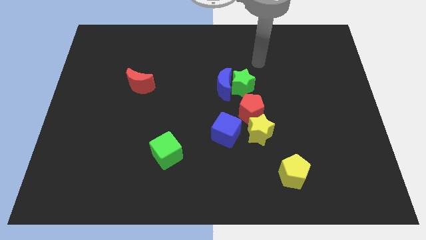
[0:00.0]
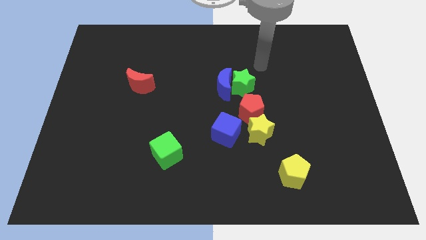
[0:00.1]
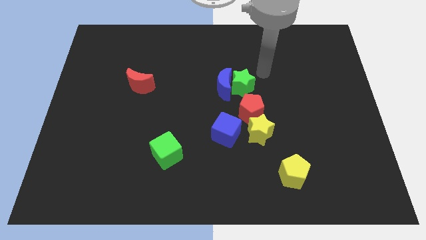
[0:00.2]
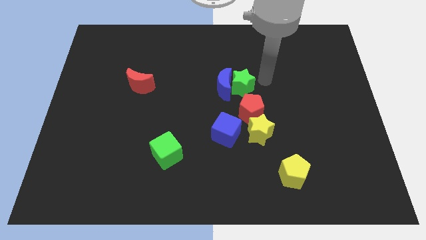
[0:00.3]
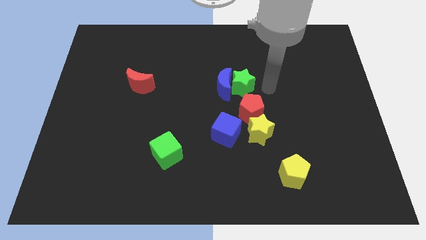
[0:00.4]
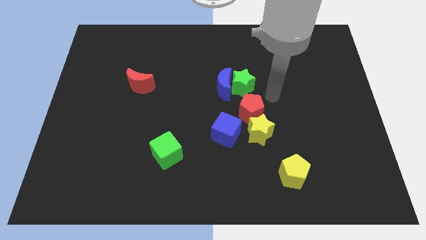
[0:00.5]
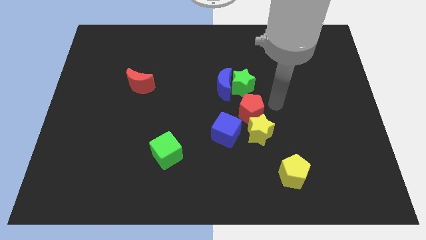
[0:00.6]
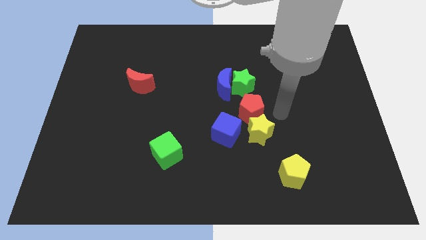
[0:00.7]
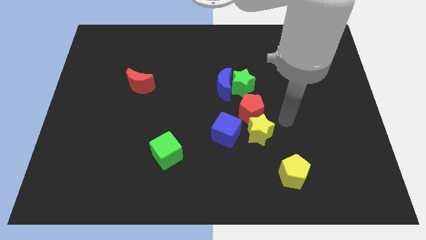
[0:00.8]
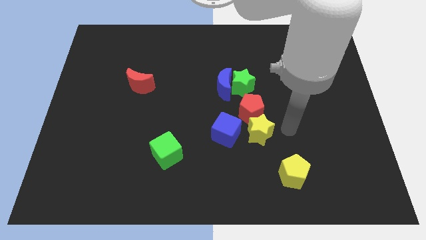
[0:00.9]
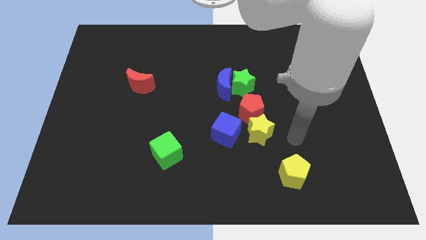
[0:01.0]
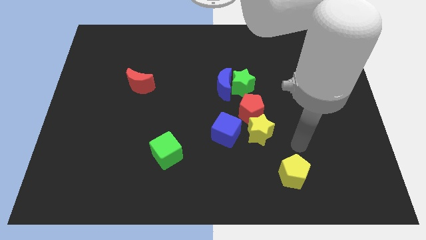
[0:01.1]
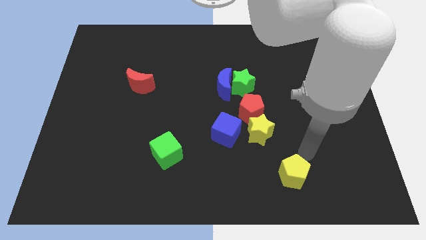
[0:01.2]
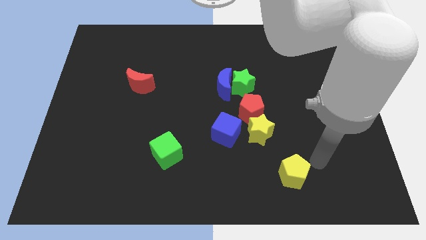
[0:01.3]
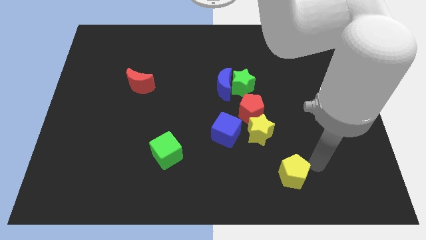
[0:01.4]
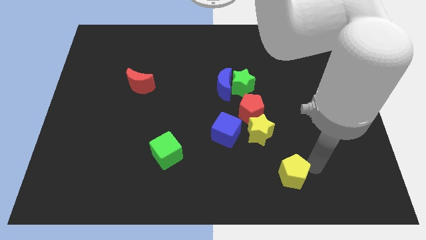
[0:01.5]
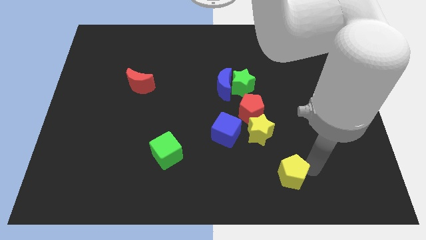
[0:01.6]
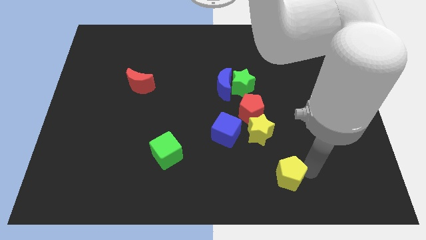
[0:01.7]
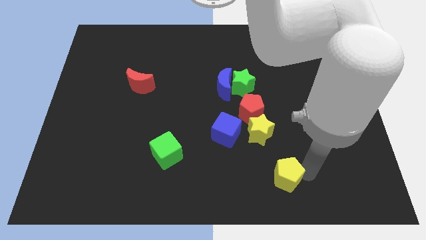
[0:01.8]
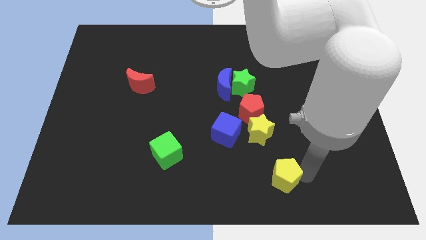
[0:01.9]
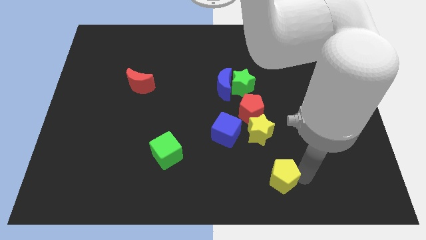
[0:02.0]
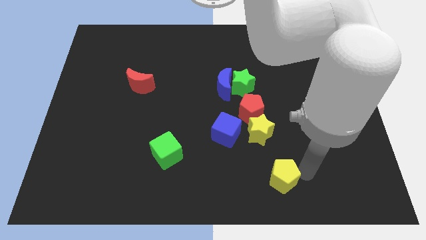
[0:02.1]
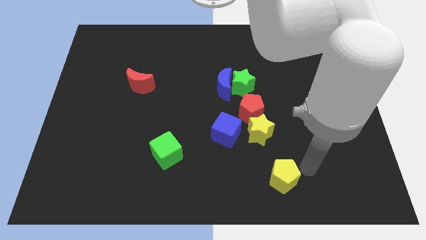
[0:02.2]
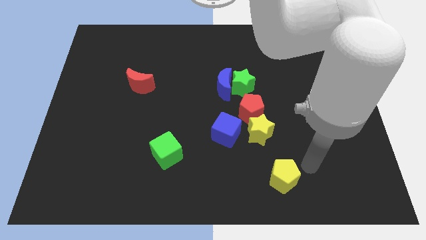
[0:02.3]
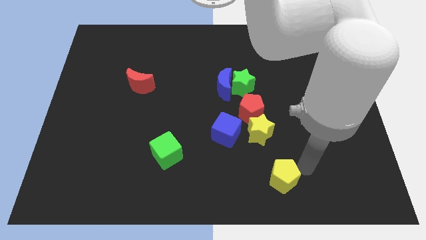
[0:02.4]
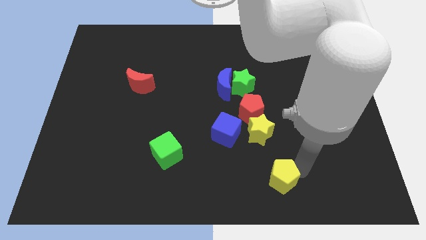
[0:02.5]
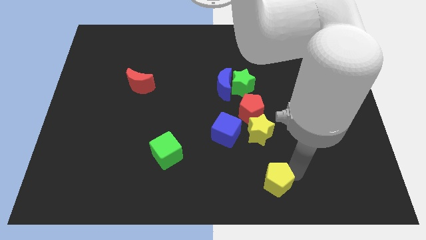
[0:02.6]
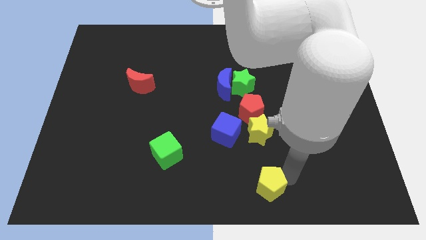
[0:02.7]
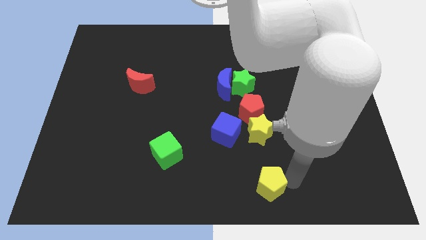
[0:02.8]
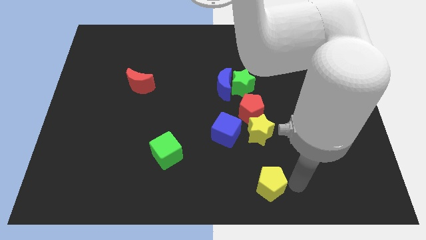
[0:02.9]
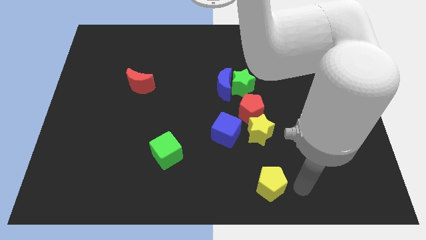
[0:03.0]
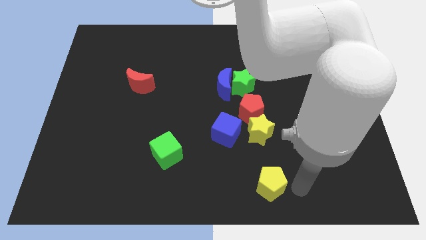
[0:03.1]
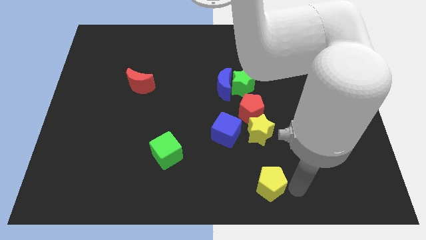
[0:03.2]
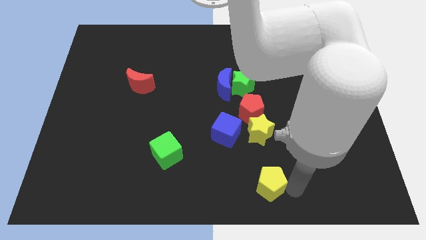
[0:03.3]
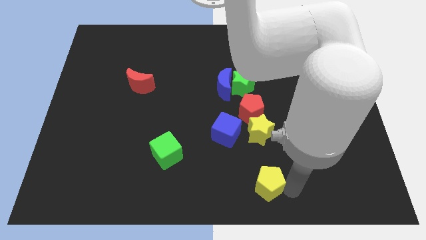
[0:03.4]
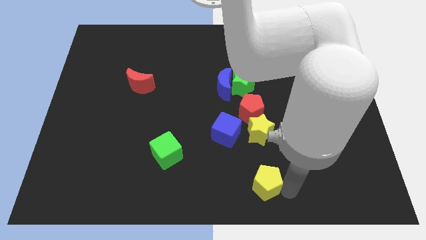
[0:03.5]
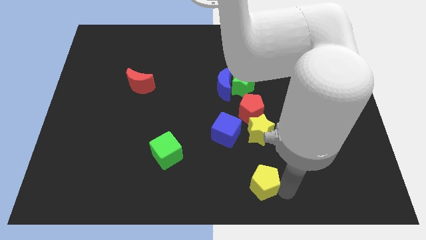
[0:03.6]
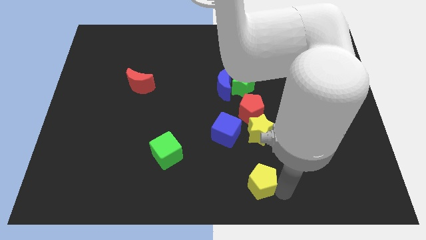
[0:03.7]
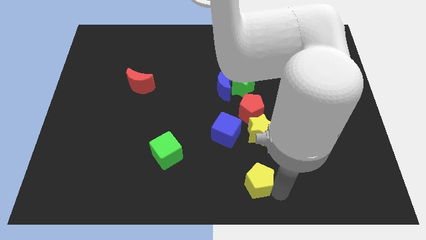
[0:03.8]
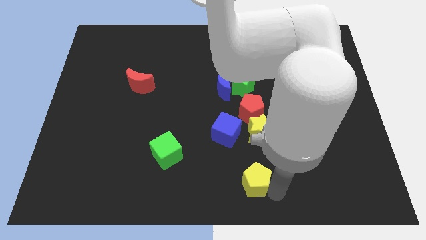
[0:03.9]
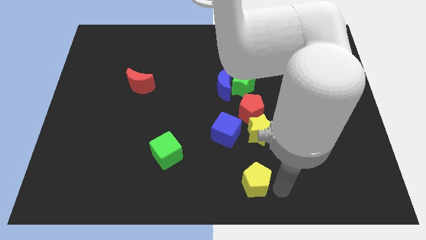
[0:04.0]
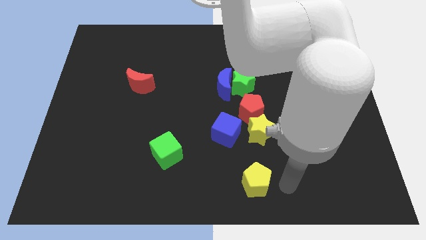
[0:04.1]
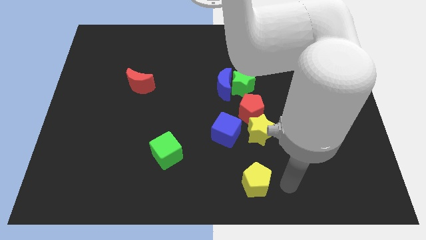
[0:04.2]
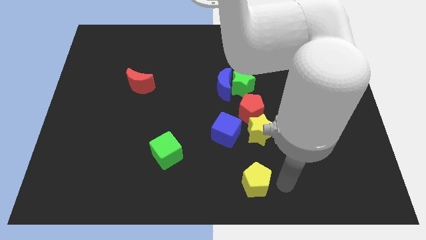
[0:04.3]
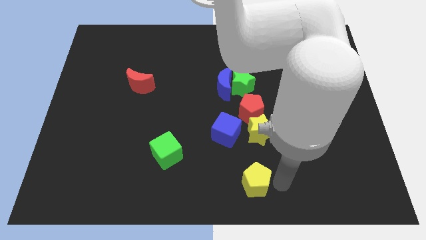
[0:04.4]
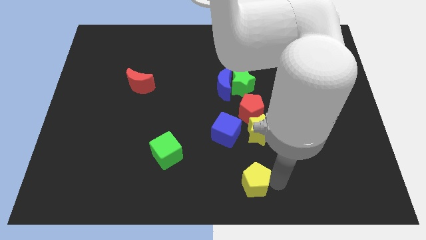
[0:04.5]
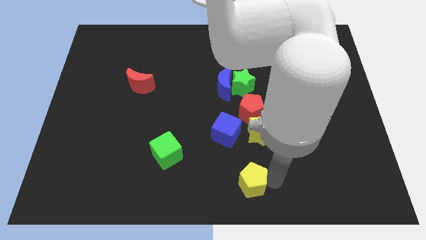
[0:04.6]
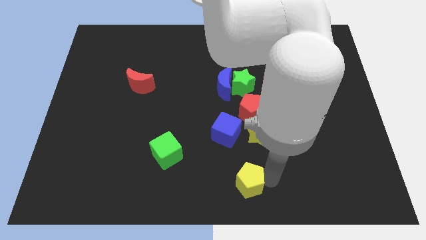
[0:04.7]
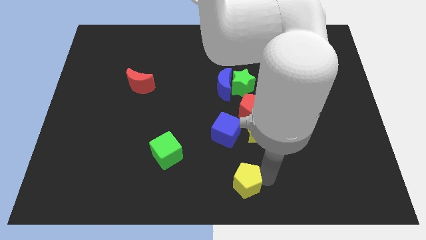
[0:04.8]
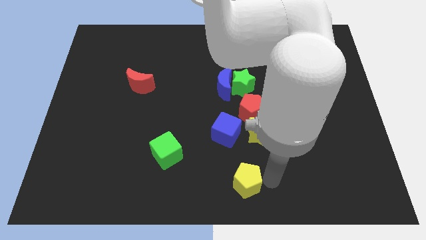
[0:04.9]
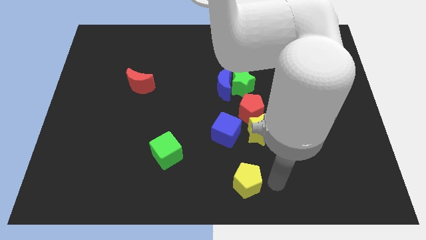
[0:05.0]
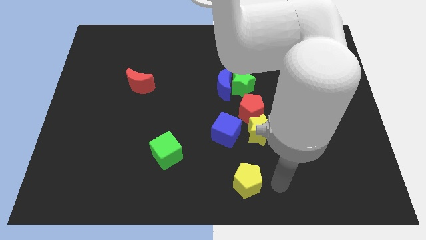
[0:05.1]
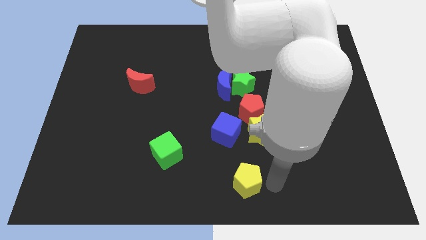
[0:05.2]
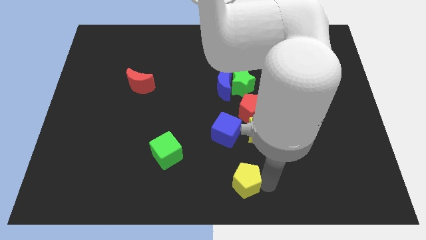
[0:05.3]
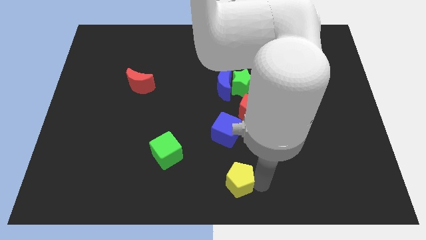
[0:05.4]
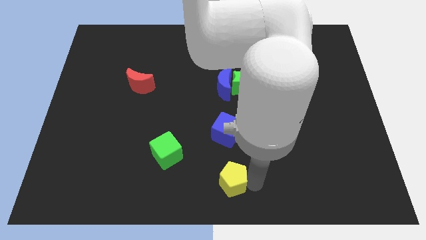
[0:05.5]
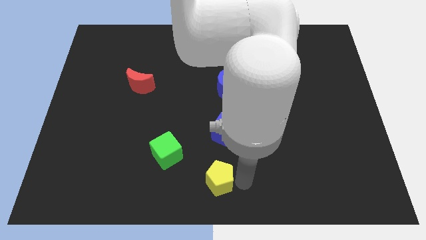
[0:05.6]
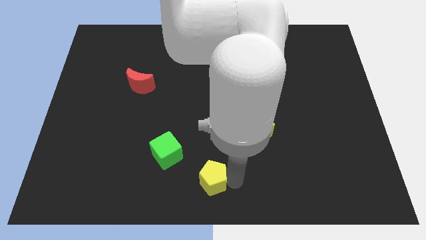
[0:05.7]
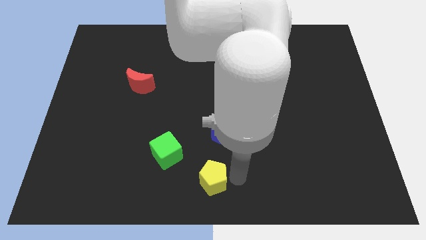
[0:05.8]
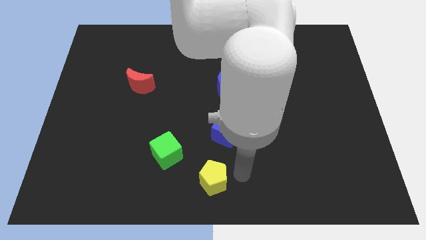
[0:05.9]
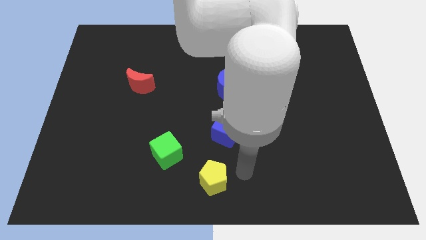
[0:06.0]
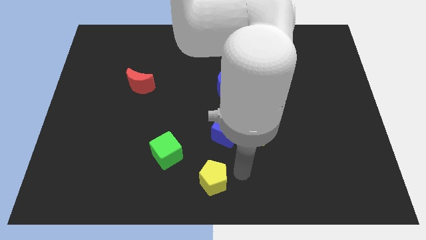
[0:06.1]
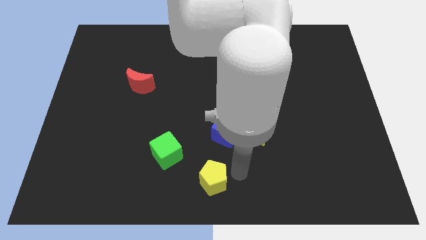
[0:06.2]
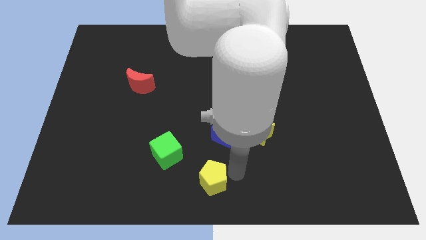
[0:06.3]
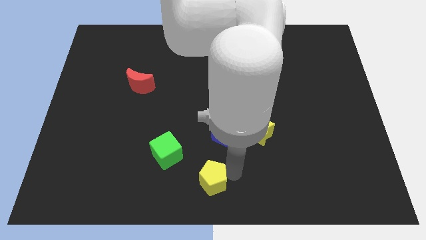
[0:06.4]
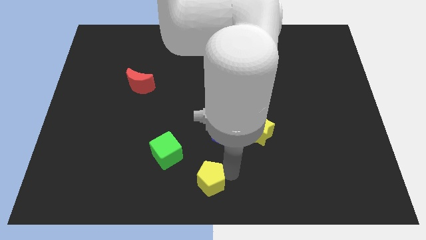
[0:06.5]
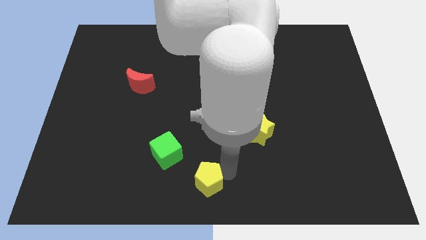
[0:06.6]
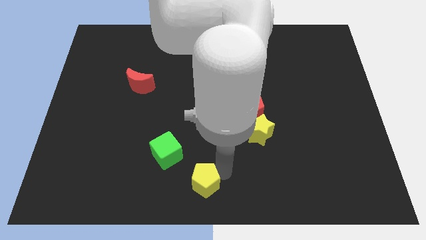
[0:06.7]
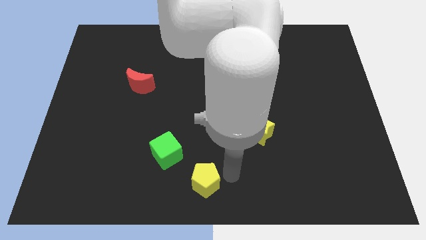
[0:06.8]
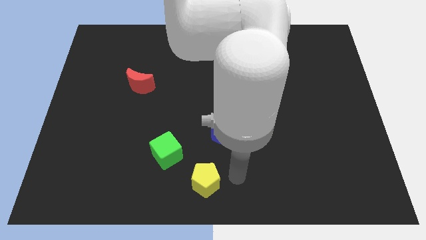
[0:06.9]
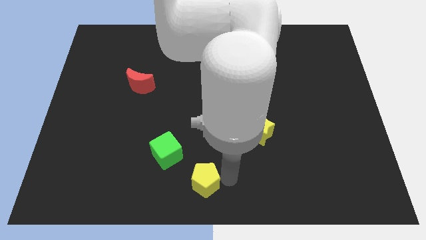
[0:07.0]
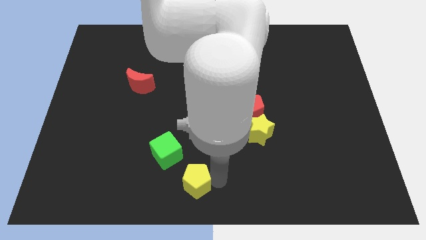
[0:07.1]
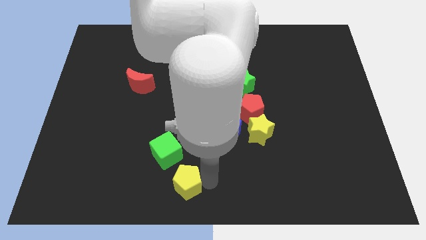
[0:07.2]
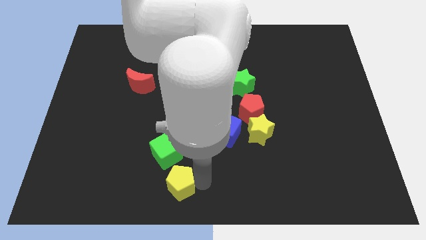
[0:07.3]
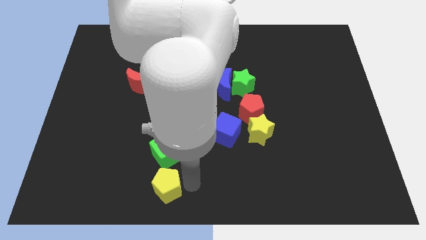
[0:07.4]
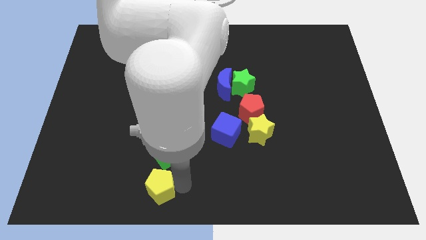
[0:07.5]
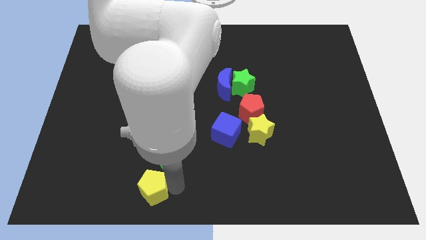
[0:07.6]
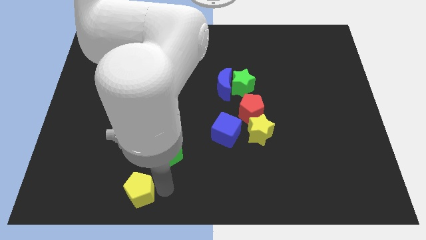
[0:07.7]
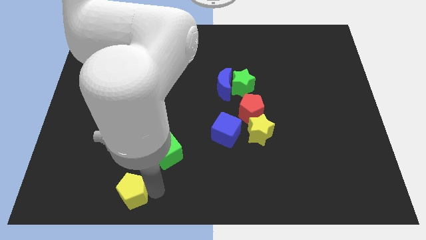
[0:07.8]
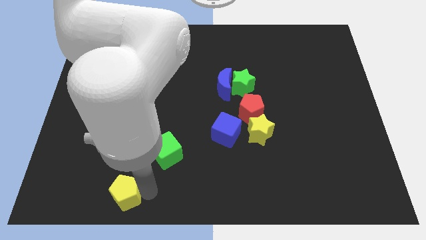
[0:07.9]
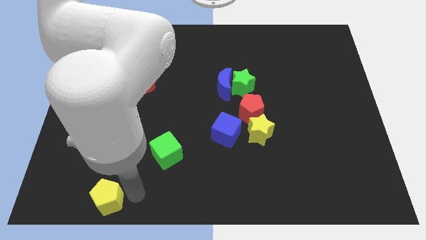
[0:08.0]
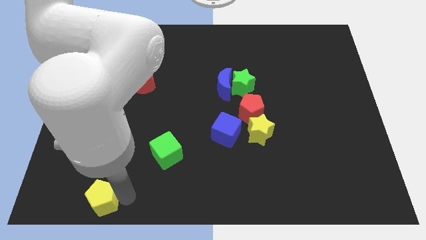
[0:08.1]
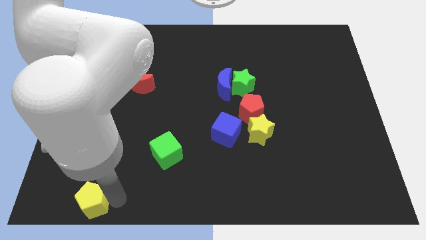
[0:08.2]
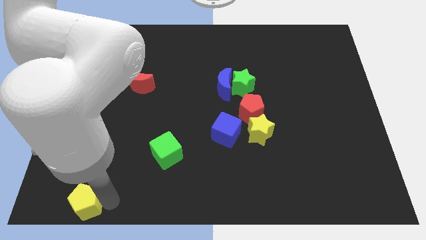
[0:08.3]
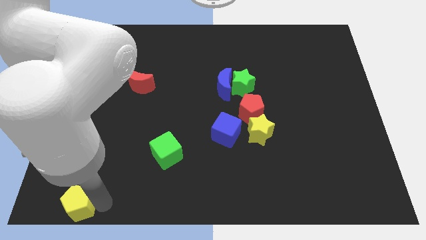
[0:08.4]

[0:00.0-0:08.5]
slide the yellow pentagon to the lower left corner
